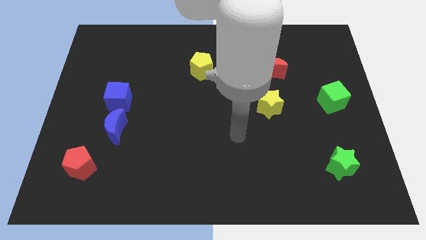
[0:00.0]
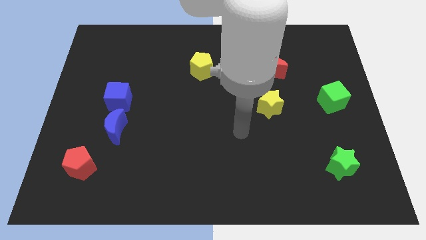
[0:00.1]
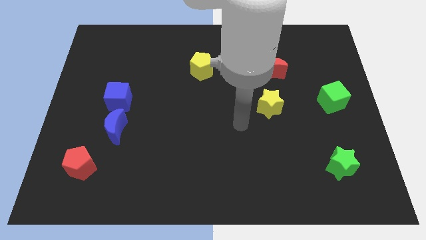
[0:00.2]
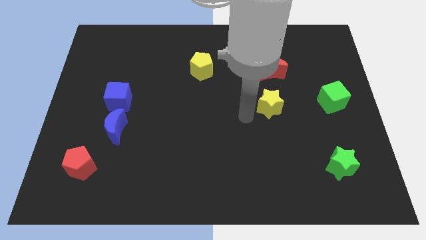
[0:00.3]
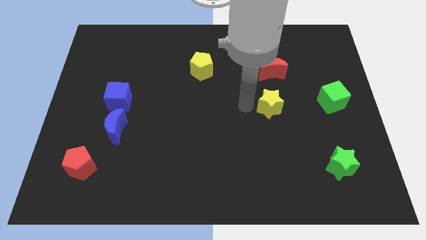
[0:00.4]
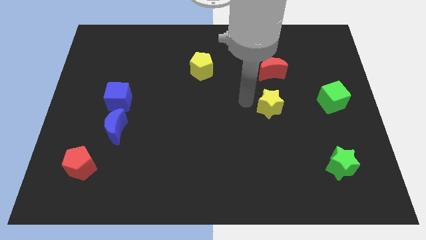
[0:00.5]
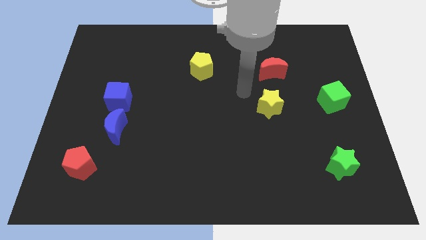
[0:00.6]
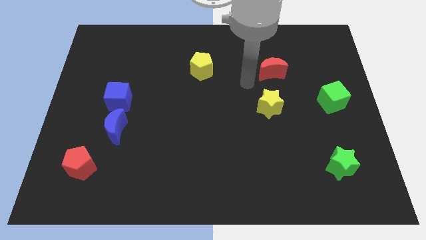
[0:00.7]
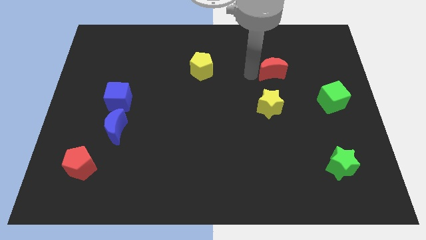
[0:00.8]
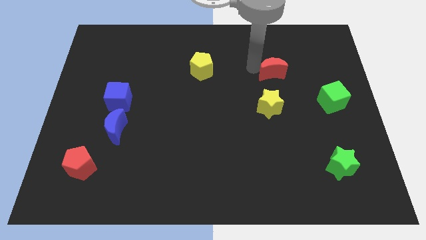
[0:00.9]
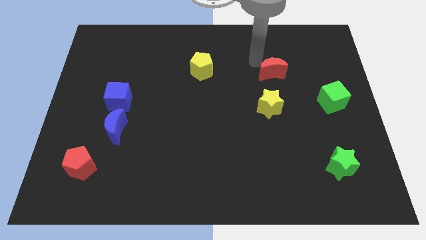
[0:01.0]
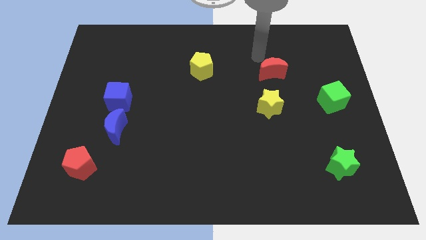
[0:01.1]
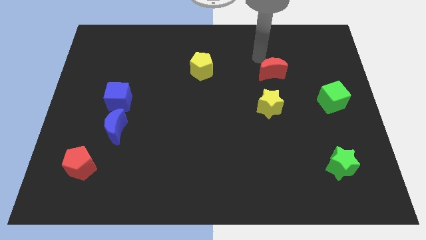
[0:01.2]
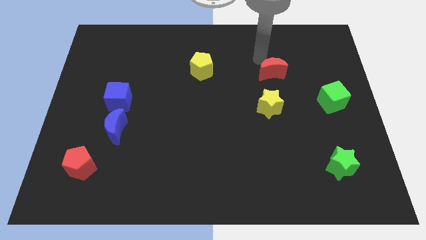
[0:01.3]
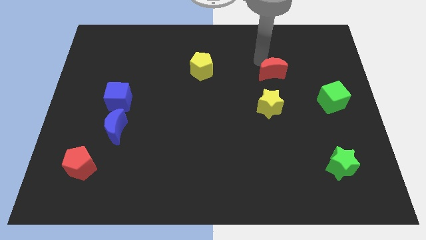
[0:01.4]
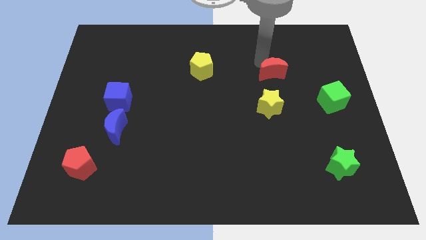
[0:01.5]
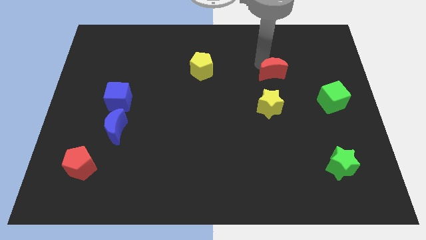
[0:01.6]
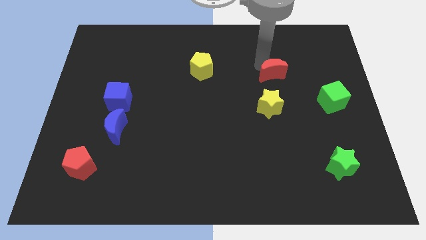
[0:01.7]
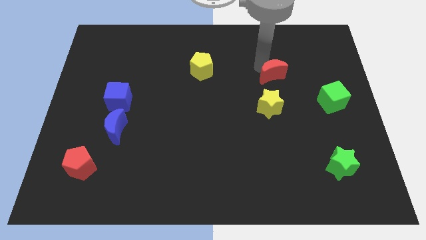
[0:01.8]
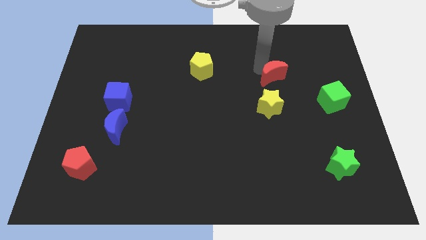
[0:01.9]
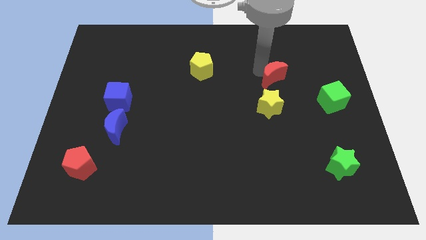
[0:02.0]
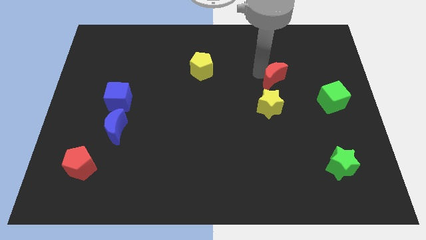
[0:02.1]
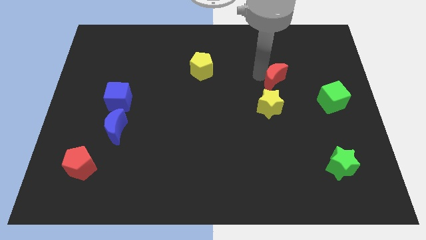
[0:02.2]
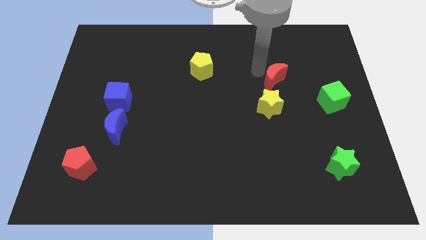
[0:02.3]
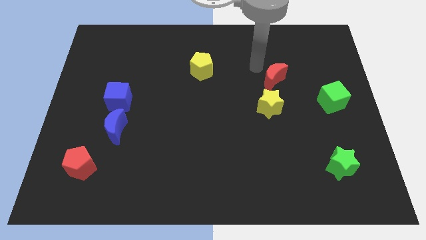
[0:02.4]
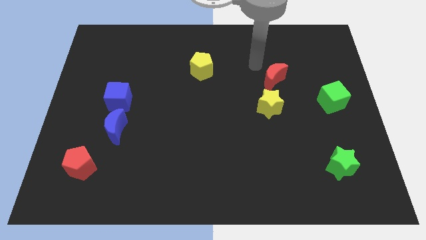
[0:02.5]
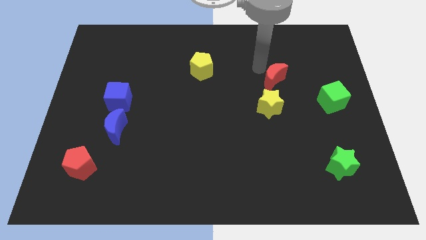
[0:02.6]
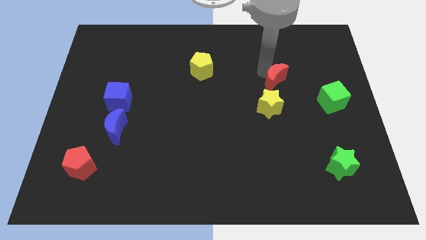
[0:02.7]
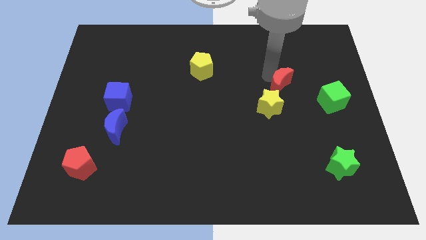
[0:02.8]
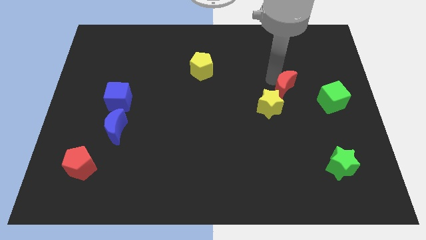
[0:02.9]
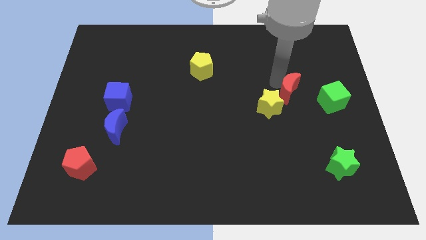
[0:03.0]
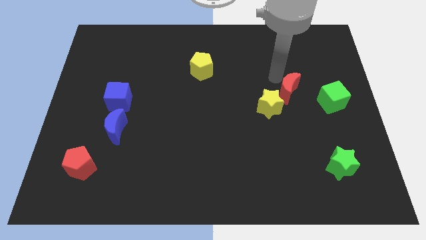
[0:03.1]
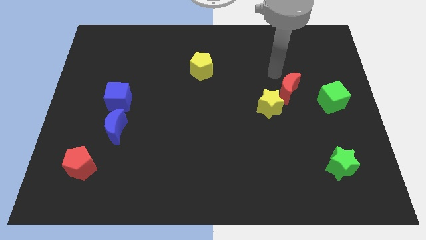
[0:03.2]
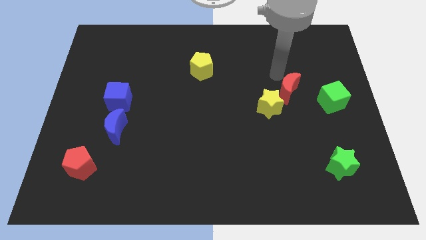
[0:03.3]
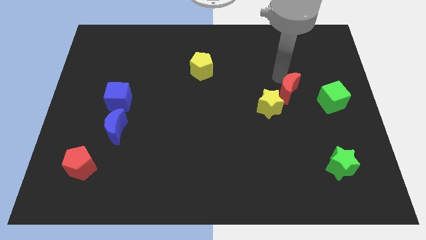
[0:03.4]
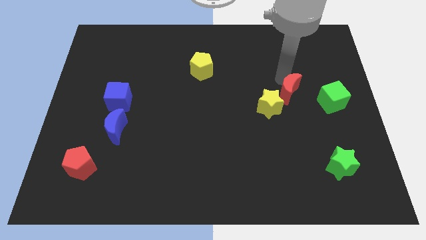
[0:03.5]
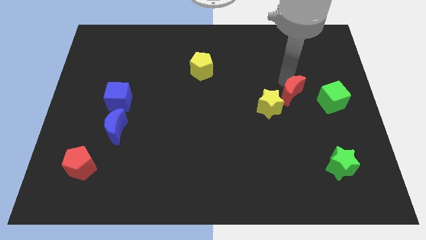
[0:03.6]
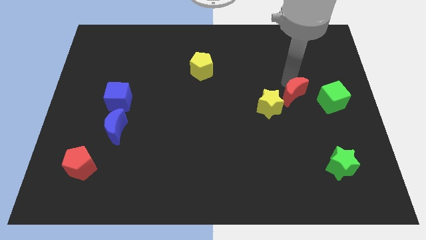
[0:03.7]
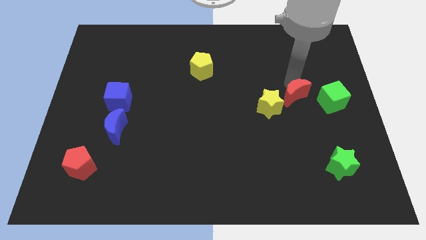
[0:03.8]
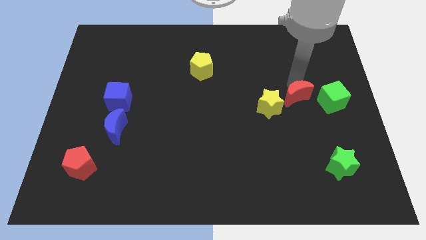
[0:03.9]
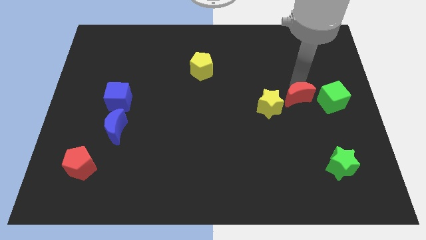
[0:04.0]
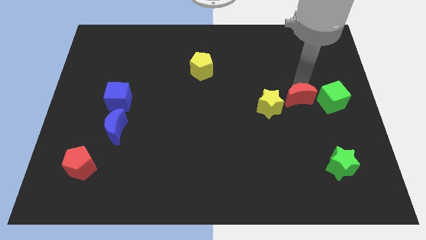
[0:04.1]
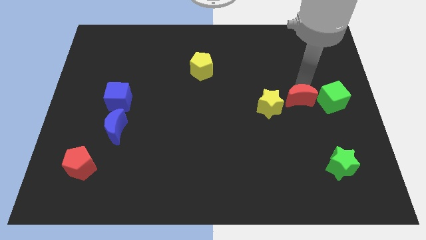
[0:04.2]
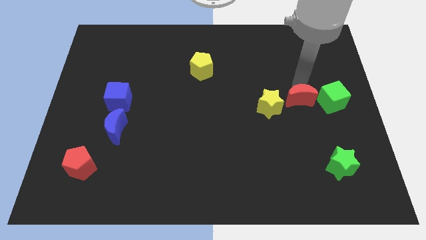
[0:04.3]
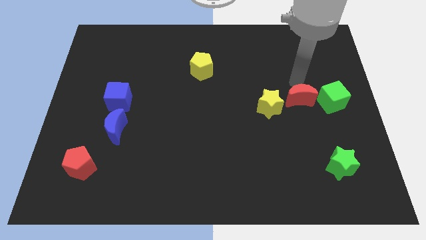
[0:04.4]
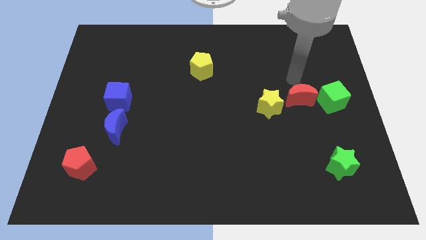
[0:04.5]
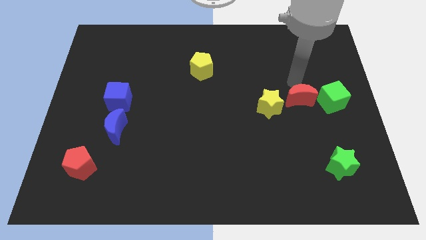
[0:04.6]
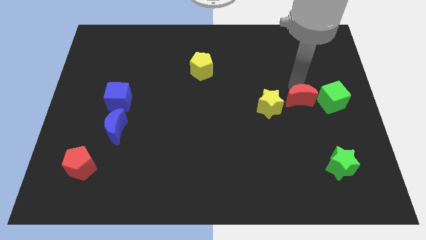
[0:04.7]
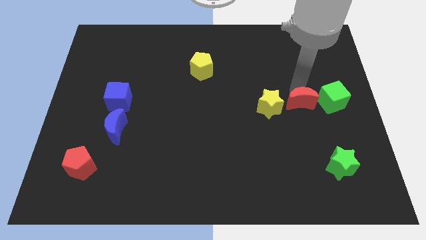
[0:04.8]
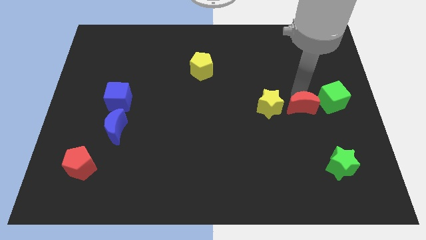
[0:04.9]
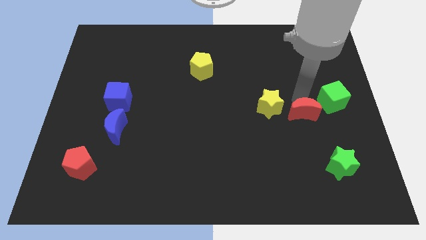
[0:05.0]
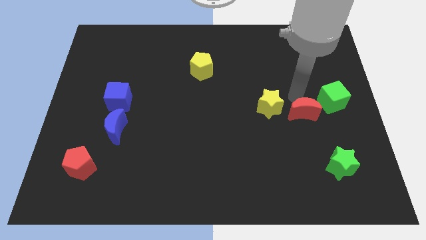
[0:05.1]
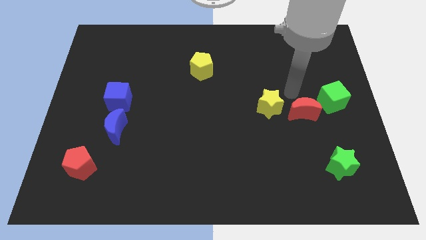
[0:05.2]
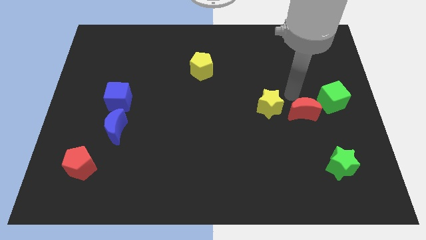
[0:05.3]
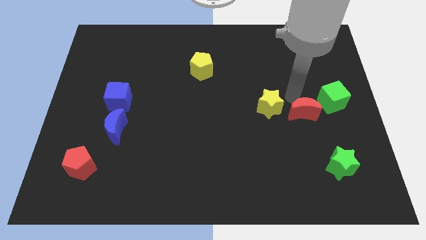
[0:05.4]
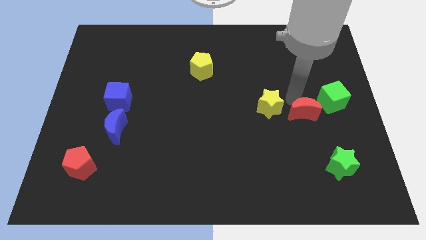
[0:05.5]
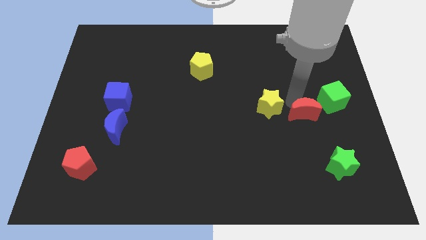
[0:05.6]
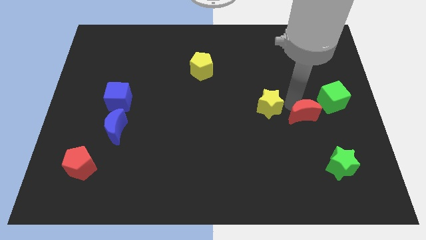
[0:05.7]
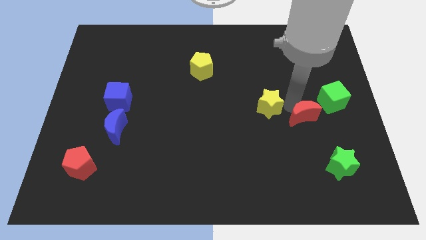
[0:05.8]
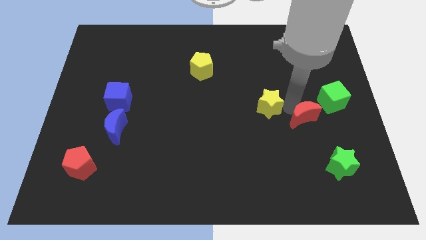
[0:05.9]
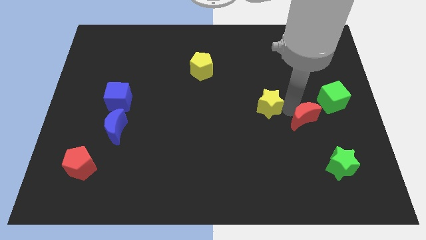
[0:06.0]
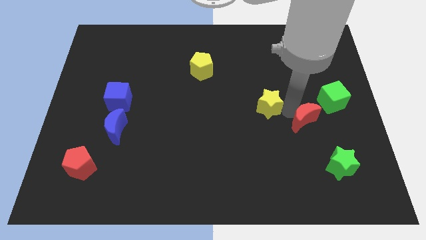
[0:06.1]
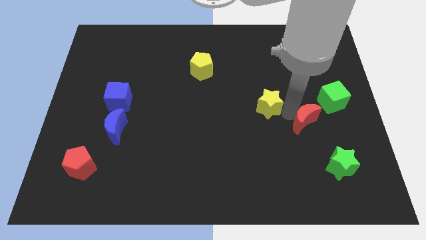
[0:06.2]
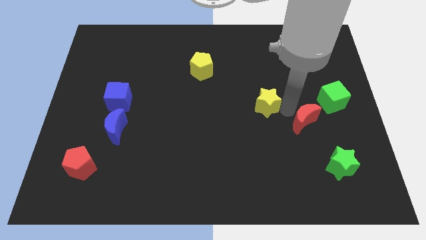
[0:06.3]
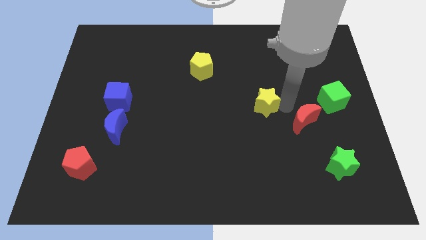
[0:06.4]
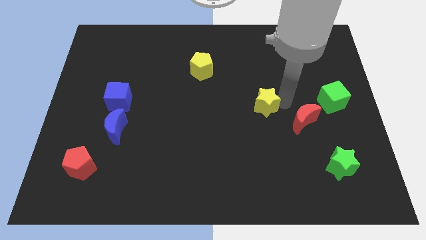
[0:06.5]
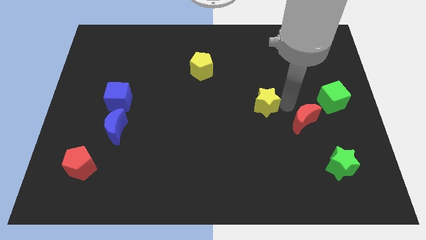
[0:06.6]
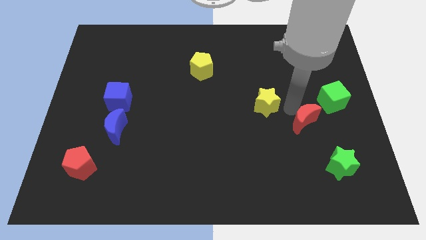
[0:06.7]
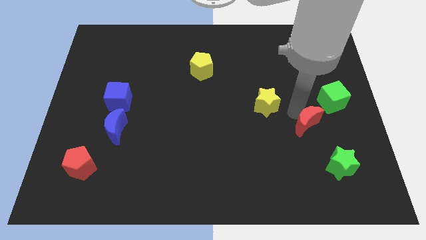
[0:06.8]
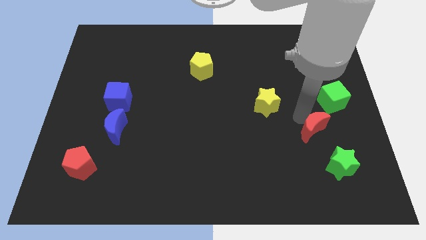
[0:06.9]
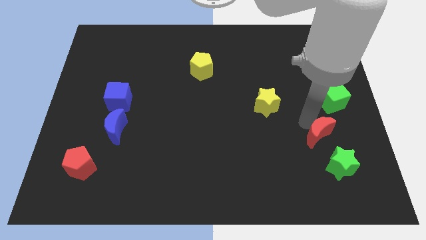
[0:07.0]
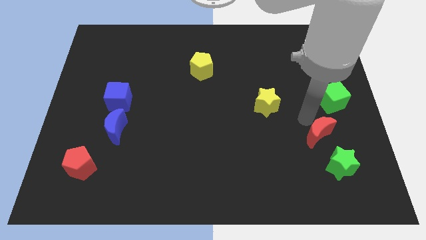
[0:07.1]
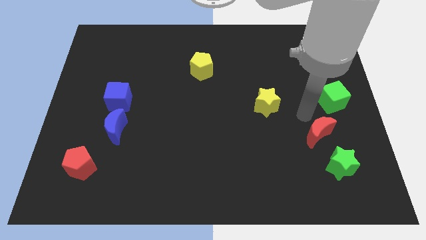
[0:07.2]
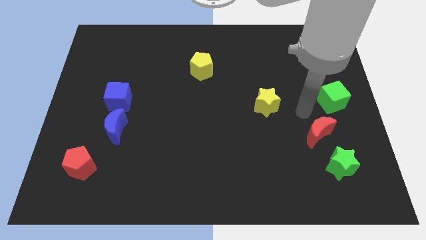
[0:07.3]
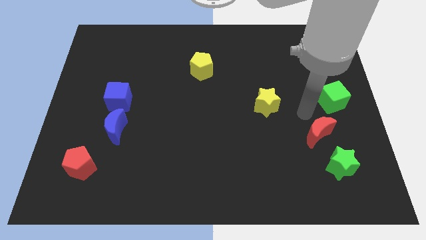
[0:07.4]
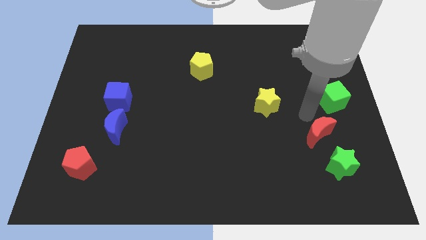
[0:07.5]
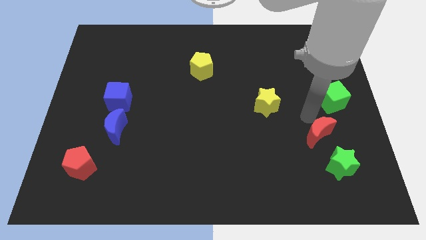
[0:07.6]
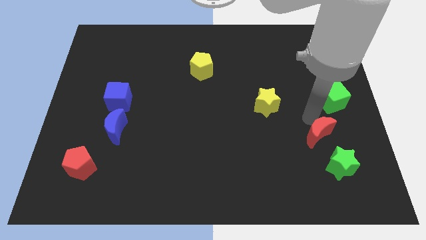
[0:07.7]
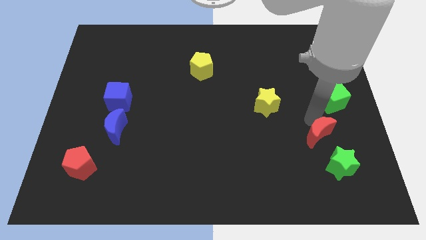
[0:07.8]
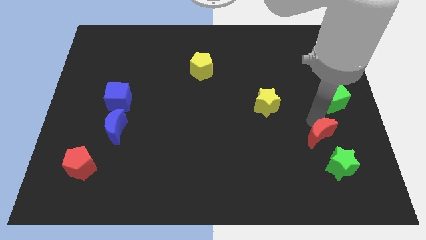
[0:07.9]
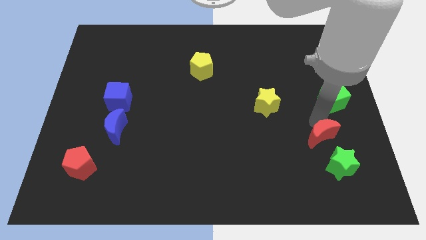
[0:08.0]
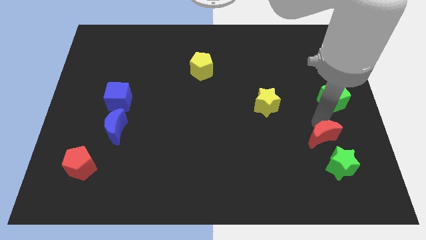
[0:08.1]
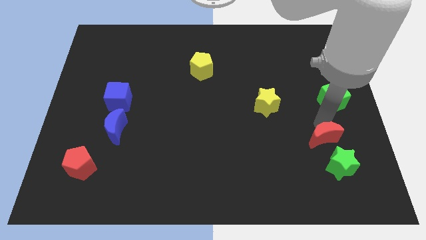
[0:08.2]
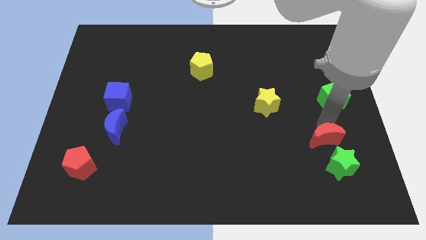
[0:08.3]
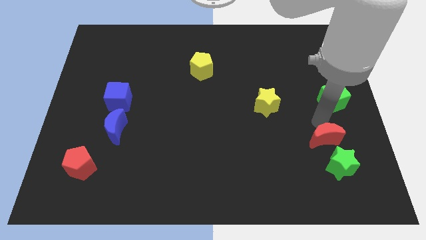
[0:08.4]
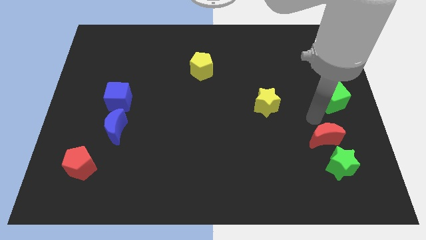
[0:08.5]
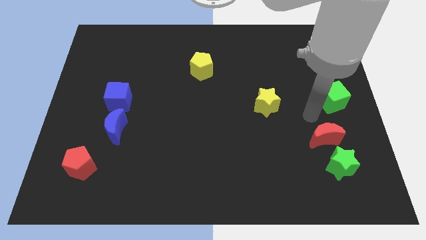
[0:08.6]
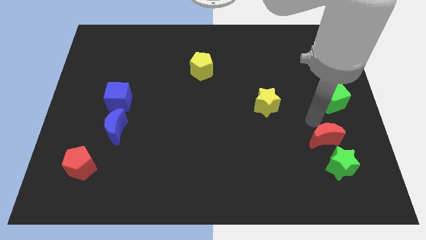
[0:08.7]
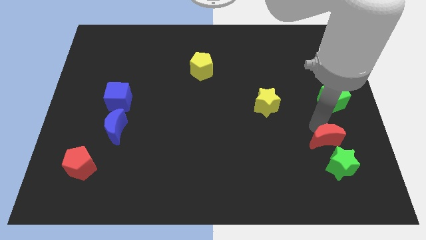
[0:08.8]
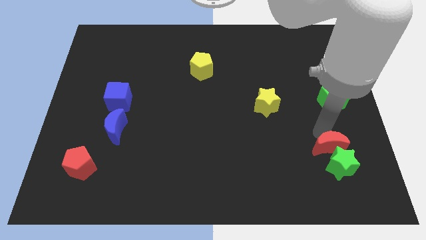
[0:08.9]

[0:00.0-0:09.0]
slide the red moon next to the green star
